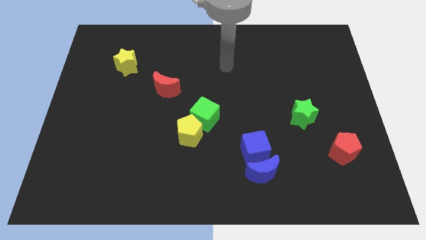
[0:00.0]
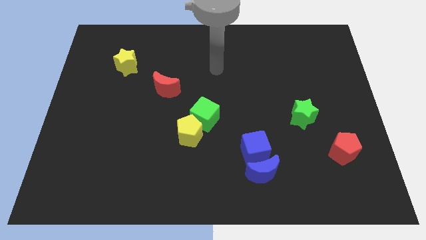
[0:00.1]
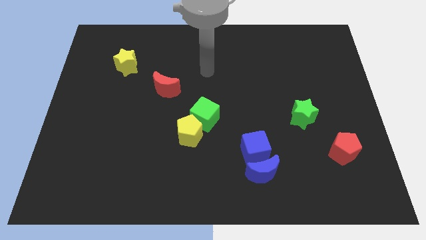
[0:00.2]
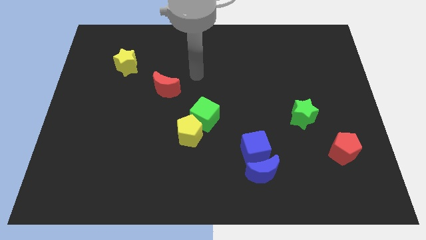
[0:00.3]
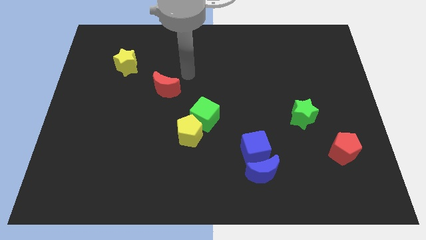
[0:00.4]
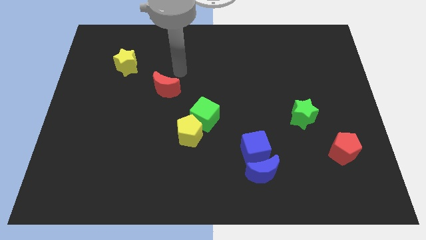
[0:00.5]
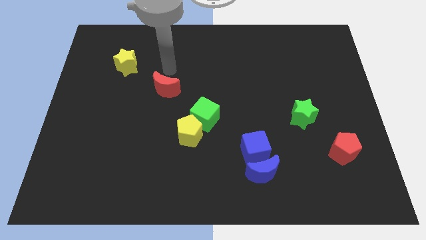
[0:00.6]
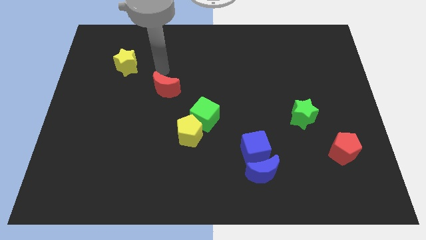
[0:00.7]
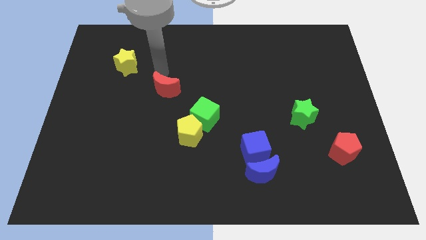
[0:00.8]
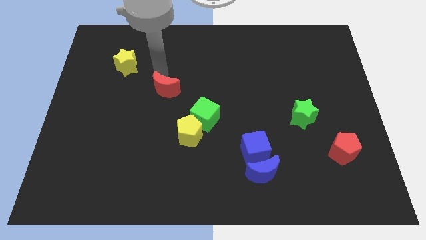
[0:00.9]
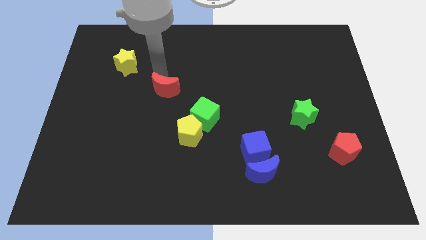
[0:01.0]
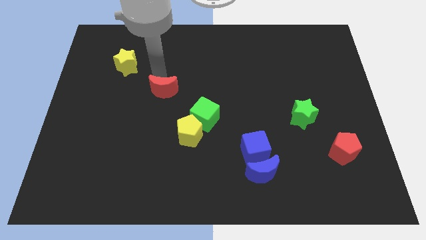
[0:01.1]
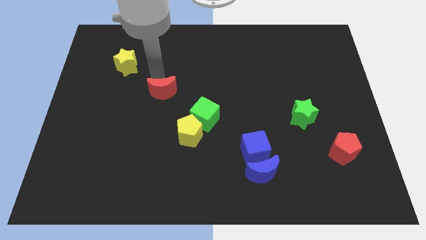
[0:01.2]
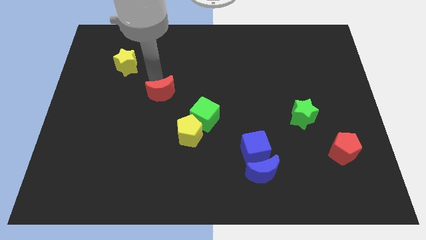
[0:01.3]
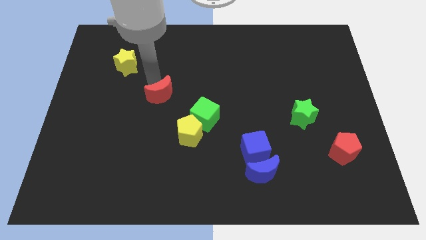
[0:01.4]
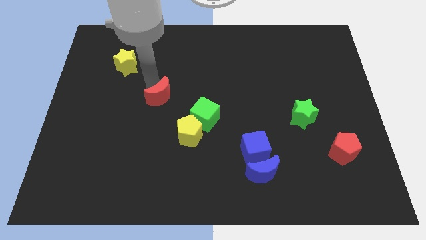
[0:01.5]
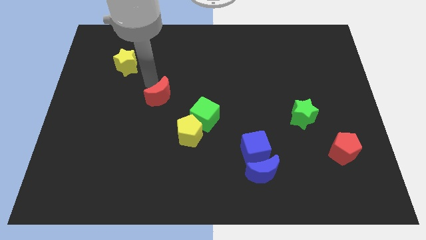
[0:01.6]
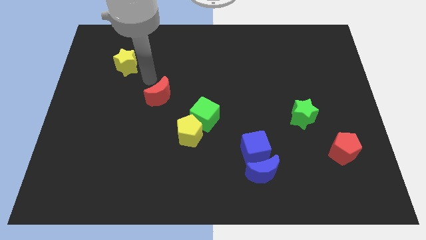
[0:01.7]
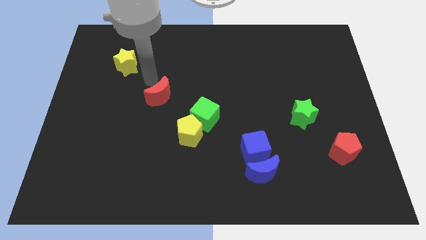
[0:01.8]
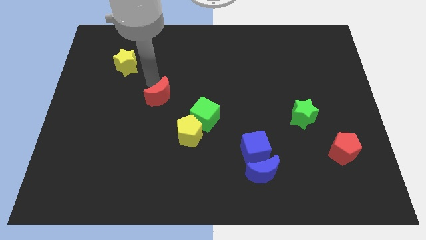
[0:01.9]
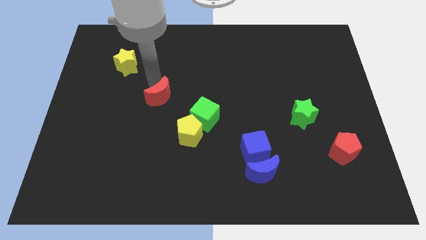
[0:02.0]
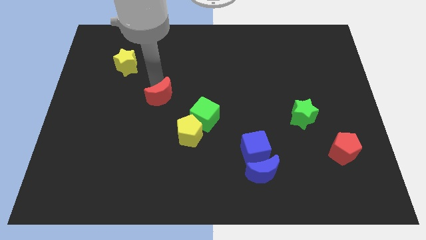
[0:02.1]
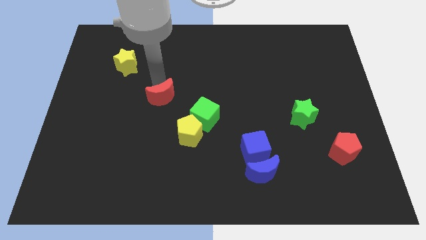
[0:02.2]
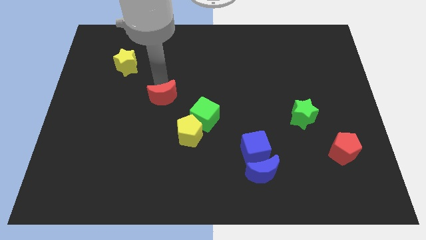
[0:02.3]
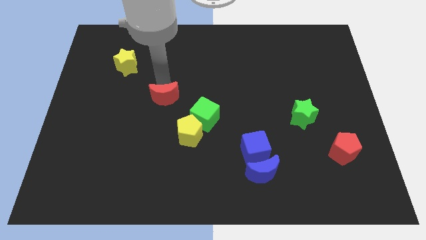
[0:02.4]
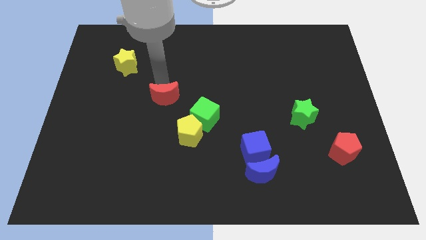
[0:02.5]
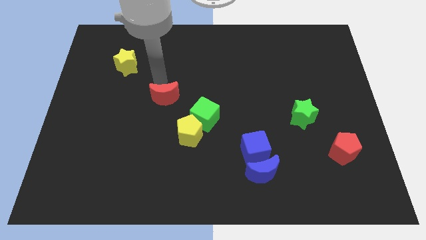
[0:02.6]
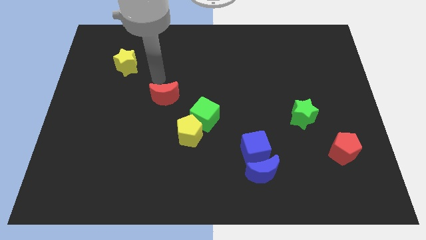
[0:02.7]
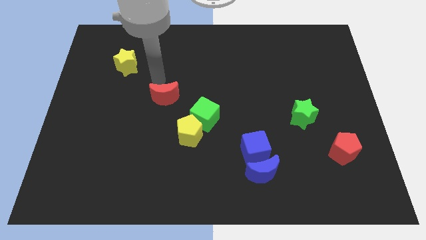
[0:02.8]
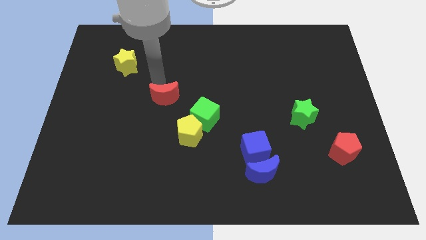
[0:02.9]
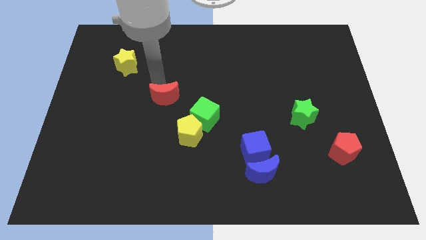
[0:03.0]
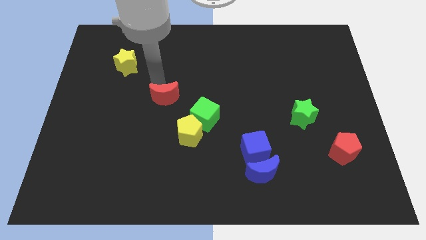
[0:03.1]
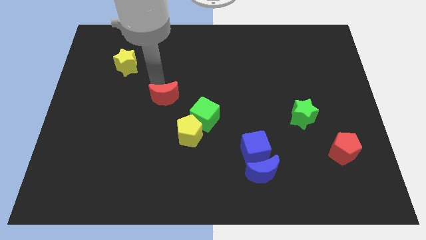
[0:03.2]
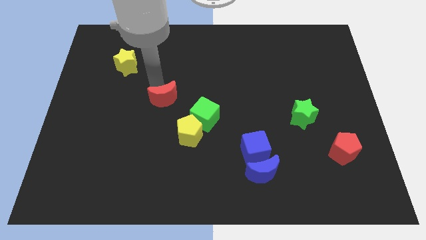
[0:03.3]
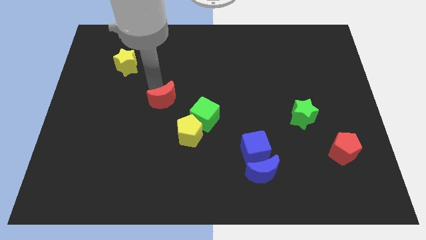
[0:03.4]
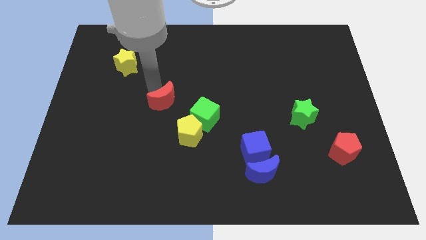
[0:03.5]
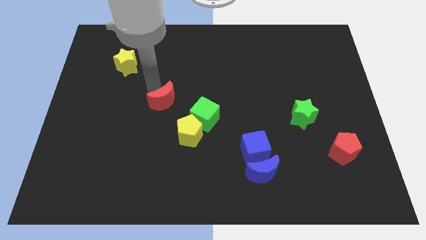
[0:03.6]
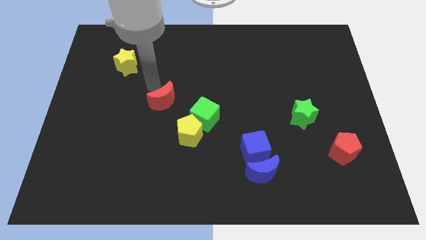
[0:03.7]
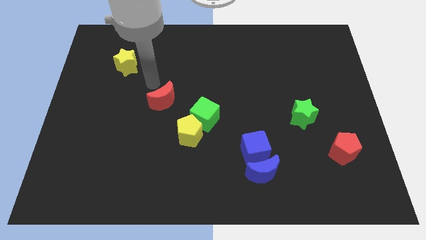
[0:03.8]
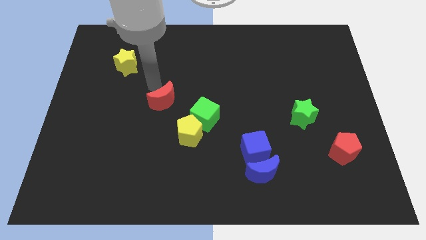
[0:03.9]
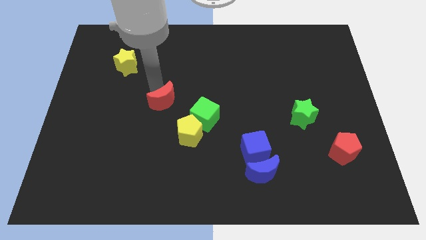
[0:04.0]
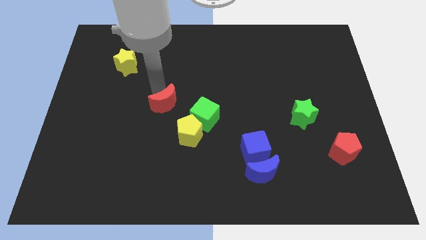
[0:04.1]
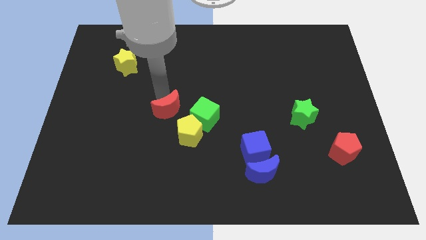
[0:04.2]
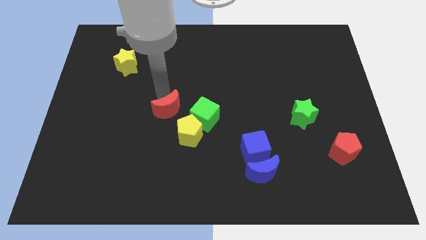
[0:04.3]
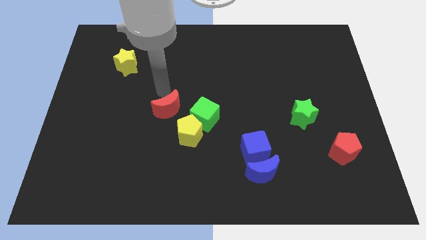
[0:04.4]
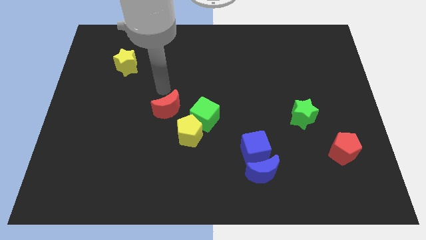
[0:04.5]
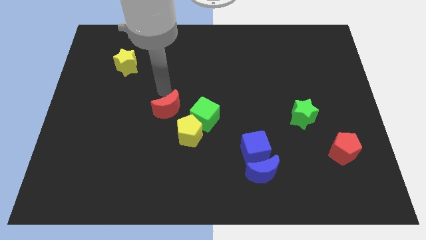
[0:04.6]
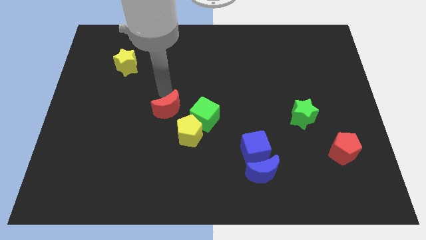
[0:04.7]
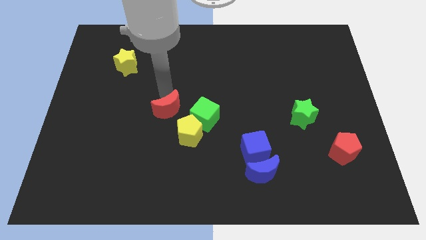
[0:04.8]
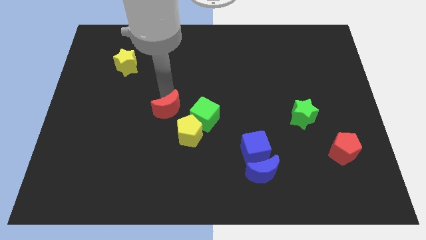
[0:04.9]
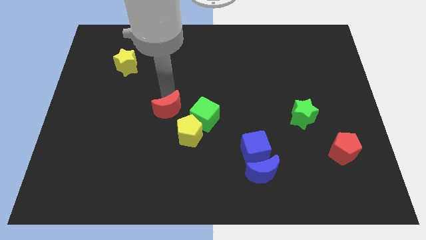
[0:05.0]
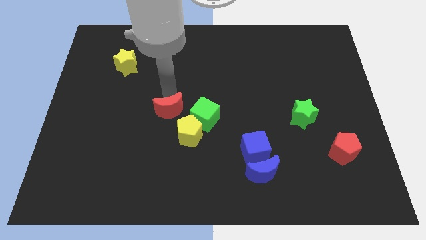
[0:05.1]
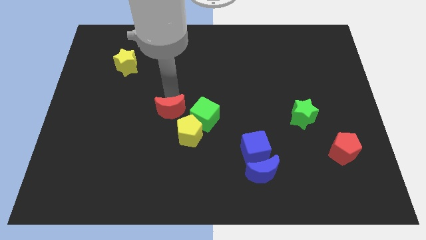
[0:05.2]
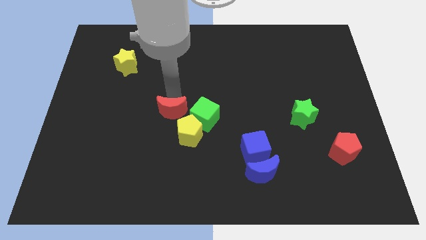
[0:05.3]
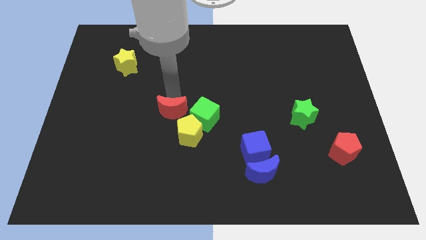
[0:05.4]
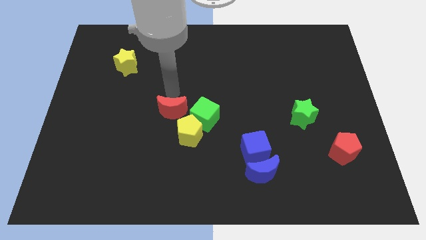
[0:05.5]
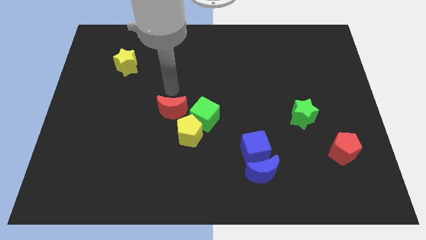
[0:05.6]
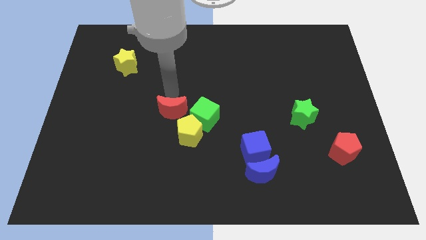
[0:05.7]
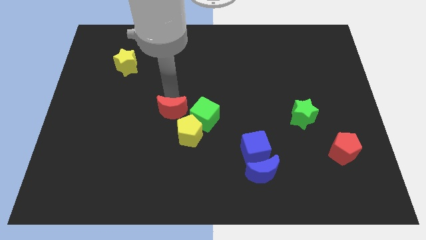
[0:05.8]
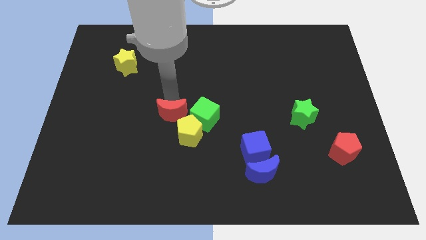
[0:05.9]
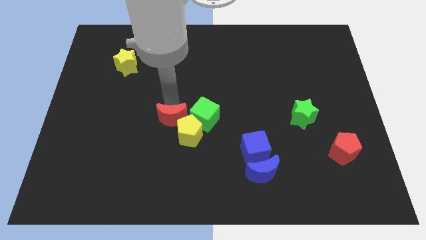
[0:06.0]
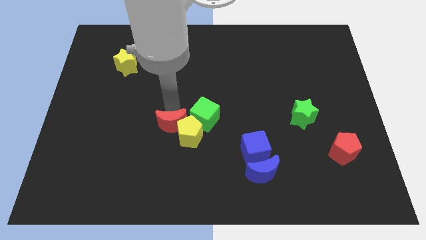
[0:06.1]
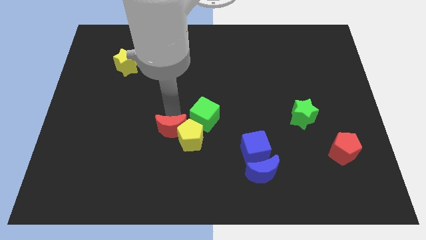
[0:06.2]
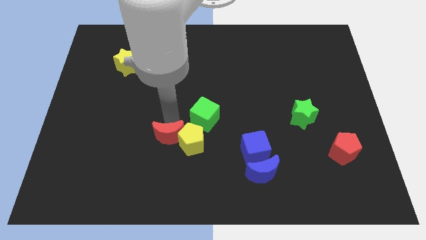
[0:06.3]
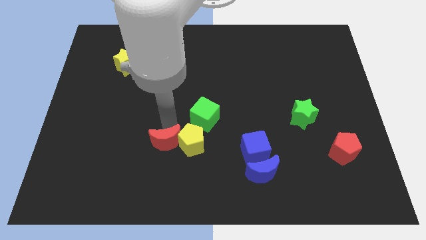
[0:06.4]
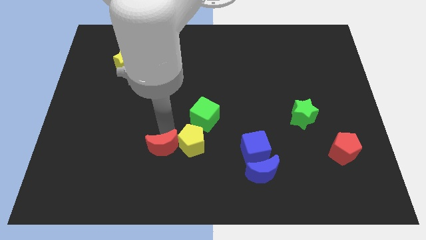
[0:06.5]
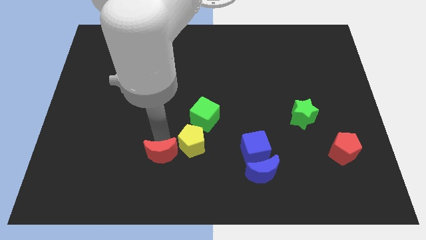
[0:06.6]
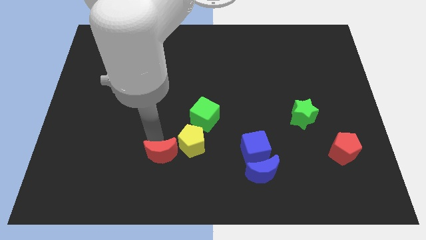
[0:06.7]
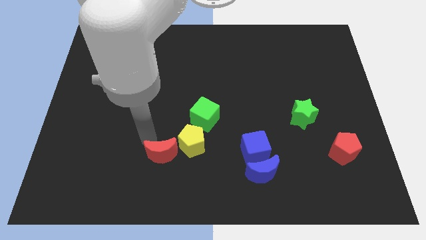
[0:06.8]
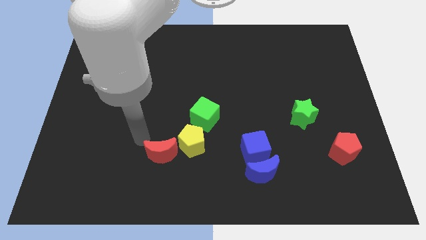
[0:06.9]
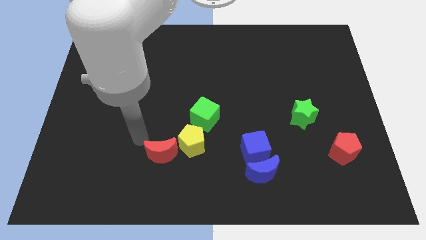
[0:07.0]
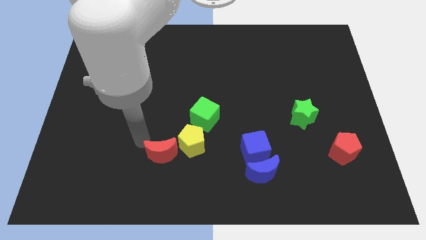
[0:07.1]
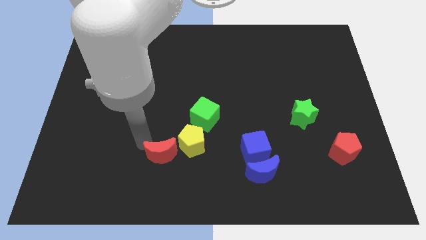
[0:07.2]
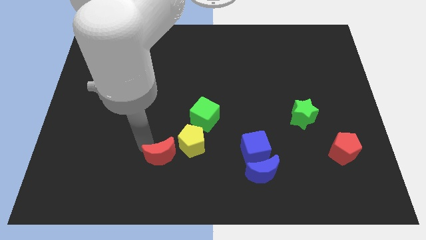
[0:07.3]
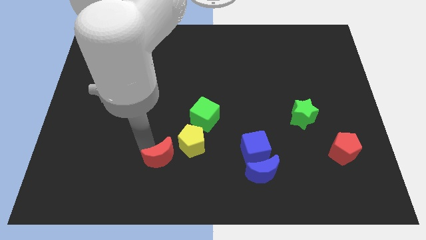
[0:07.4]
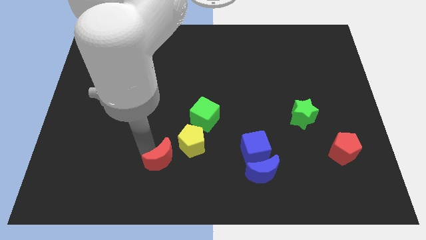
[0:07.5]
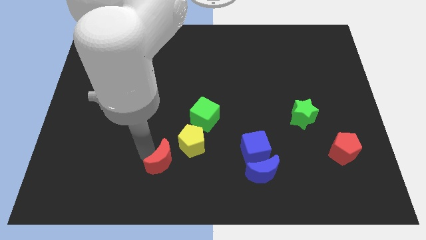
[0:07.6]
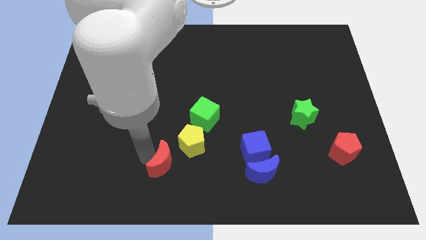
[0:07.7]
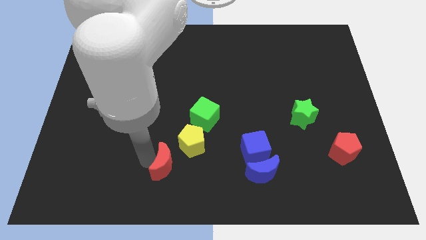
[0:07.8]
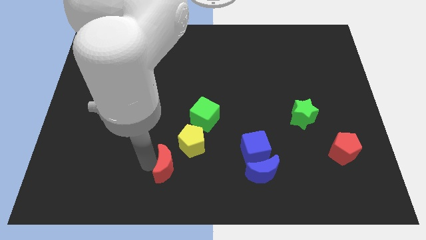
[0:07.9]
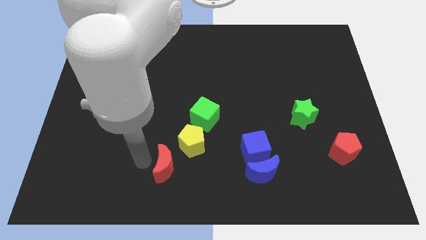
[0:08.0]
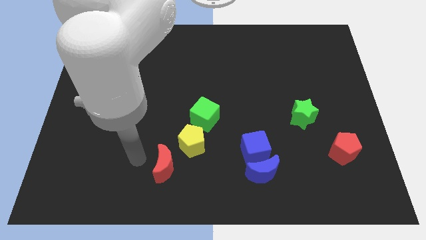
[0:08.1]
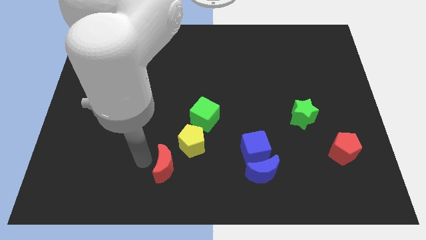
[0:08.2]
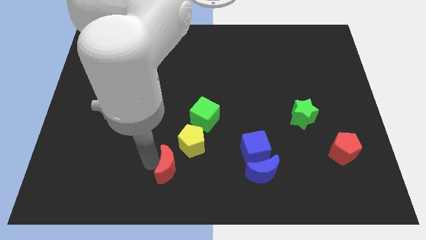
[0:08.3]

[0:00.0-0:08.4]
push the red moon to the bottom side
